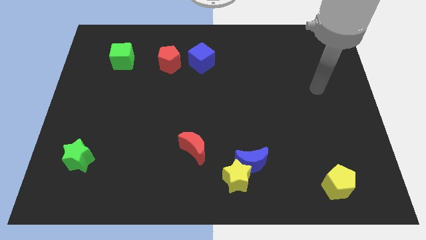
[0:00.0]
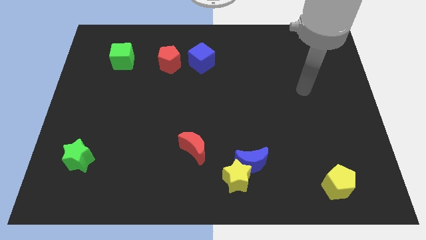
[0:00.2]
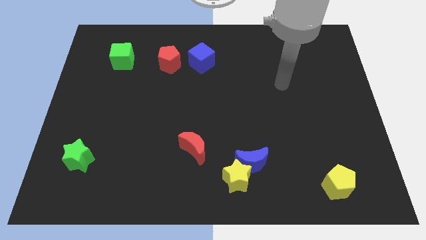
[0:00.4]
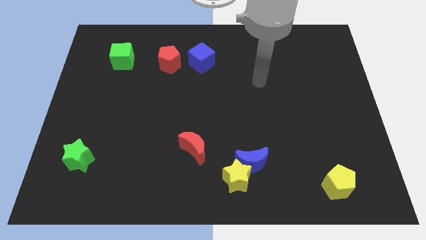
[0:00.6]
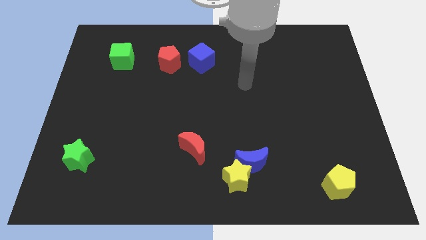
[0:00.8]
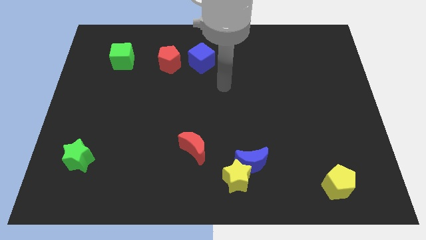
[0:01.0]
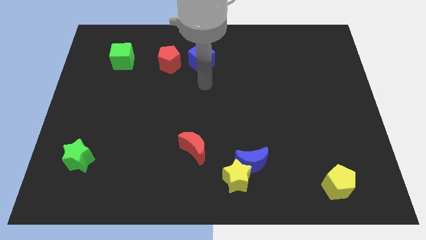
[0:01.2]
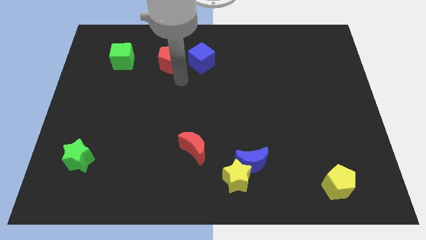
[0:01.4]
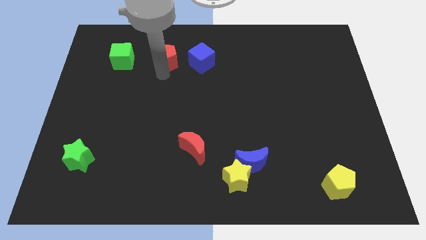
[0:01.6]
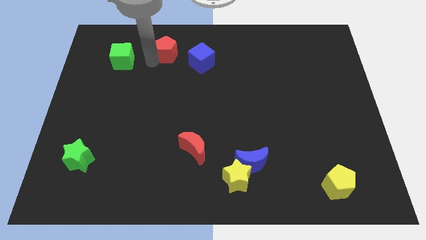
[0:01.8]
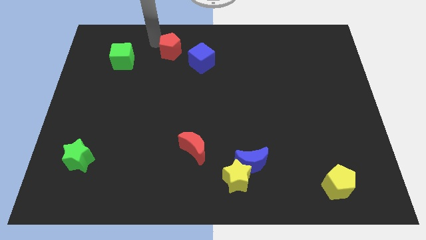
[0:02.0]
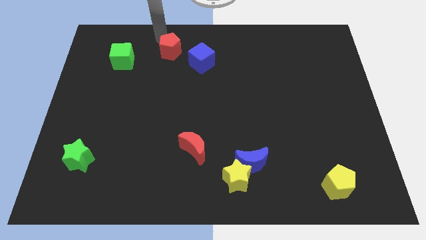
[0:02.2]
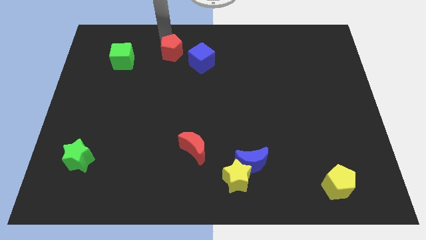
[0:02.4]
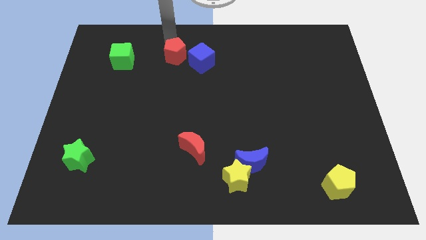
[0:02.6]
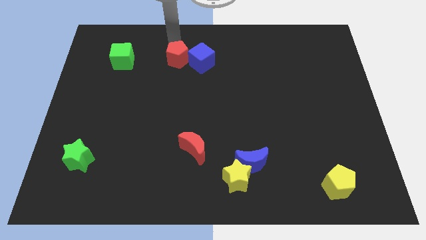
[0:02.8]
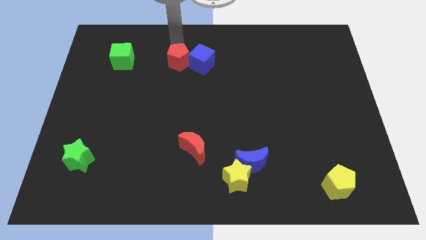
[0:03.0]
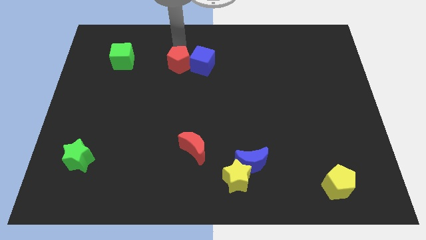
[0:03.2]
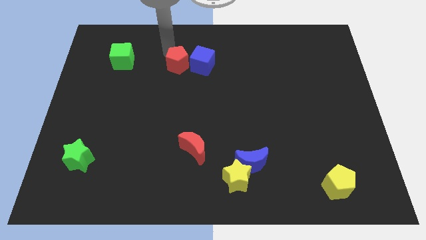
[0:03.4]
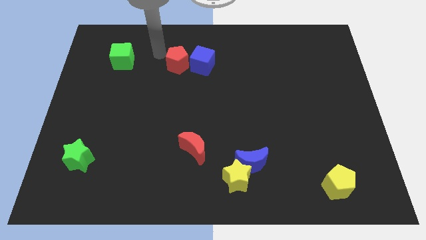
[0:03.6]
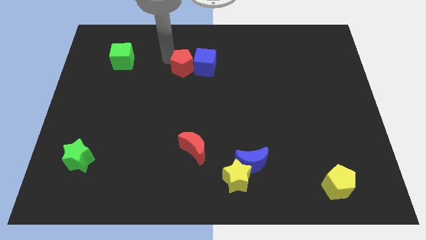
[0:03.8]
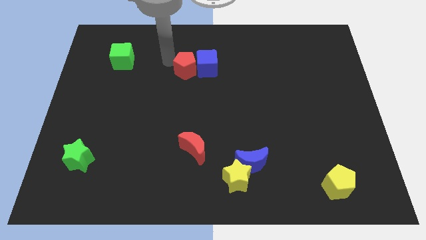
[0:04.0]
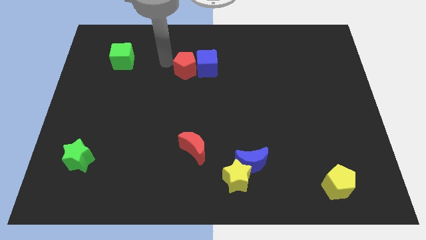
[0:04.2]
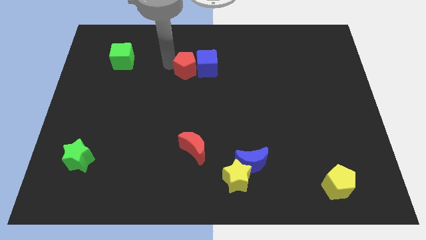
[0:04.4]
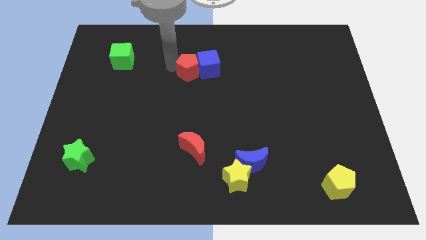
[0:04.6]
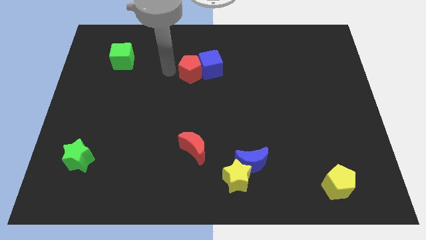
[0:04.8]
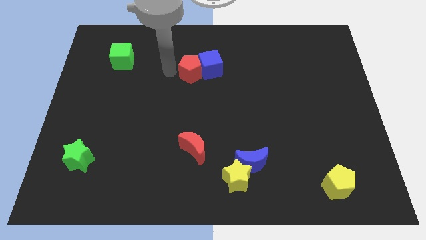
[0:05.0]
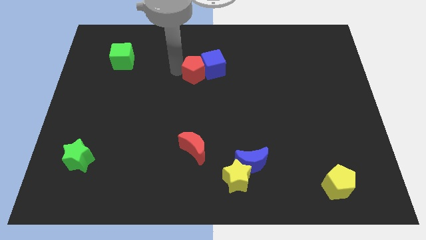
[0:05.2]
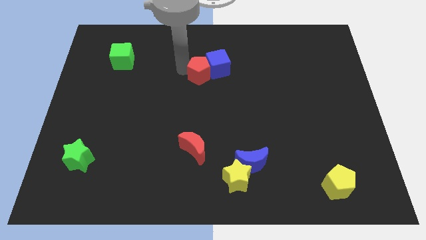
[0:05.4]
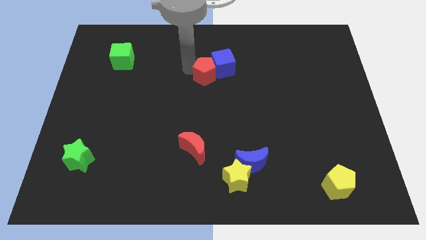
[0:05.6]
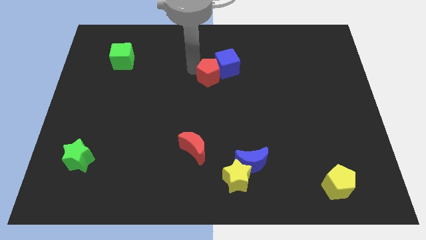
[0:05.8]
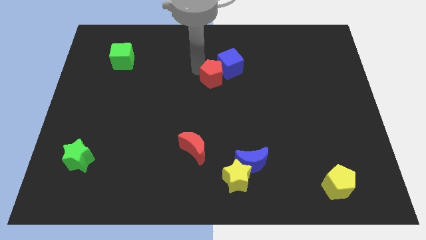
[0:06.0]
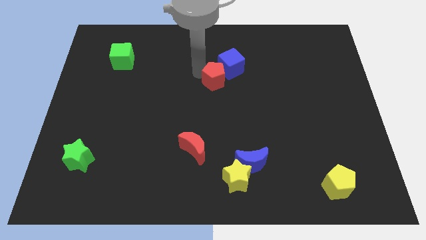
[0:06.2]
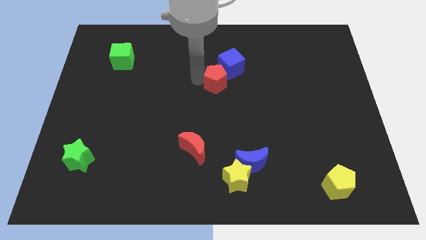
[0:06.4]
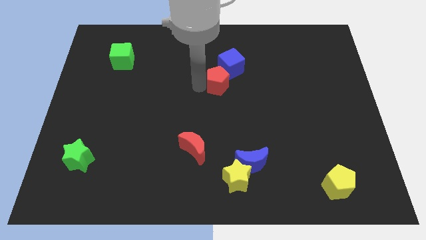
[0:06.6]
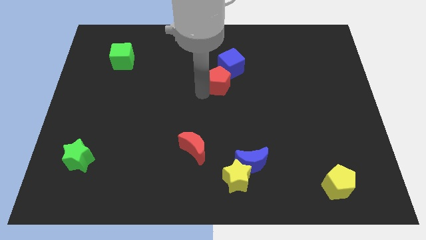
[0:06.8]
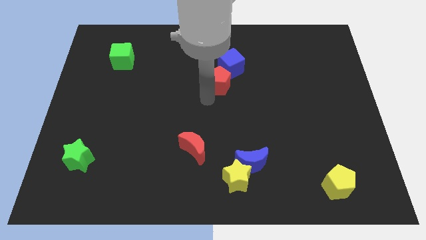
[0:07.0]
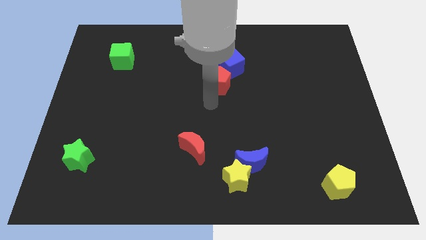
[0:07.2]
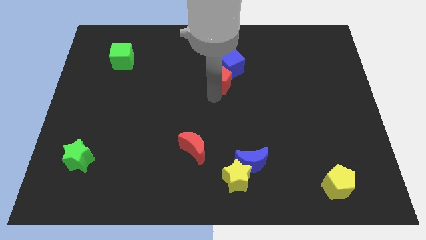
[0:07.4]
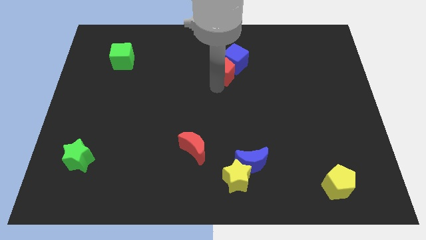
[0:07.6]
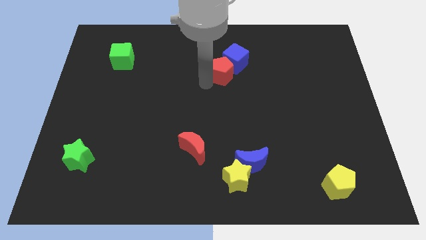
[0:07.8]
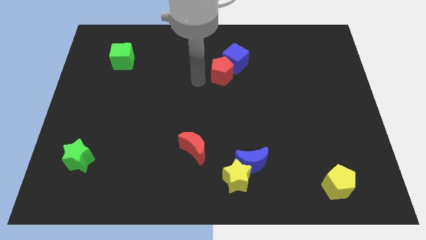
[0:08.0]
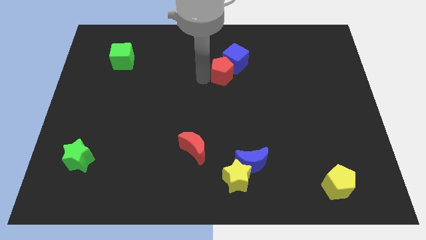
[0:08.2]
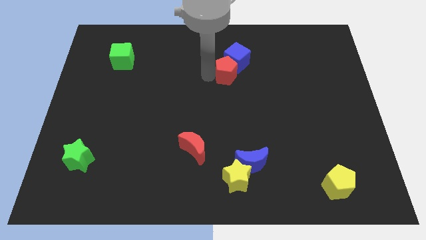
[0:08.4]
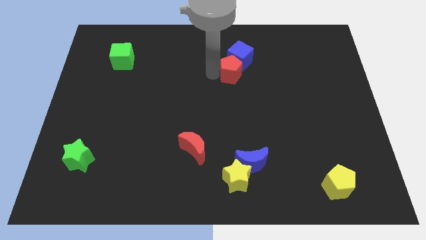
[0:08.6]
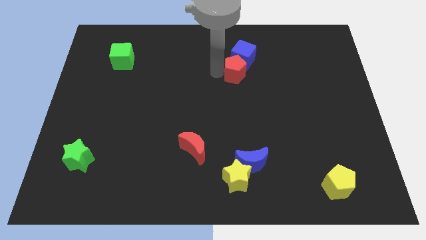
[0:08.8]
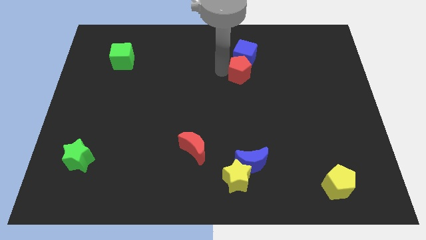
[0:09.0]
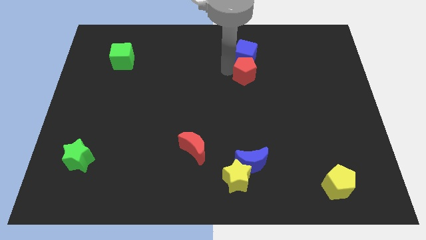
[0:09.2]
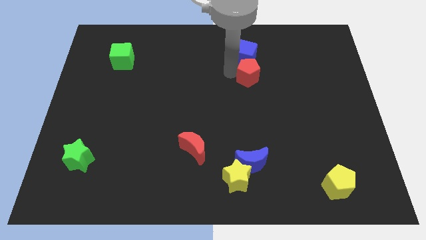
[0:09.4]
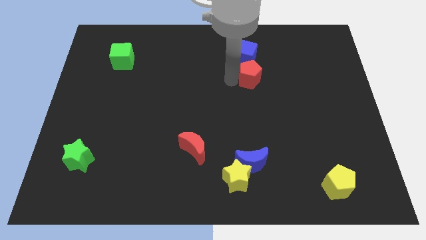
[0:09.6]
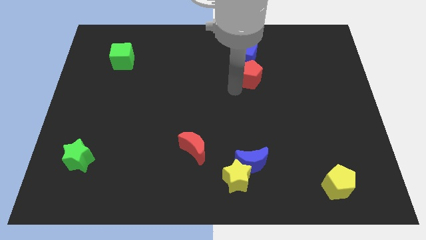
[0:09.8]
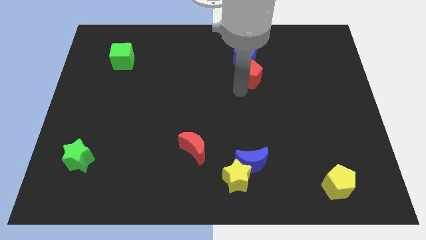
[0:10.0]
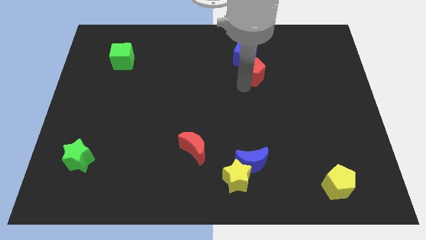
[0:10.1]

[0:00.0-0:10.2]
push the red pentagon to the right

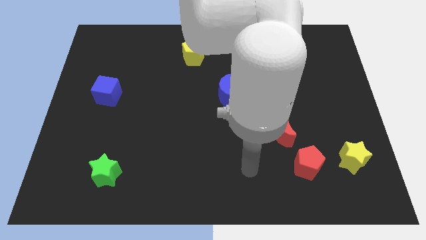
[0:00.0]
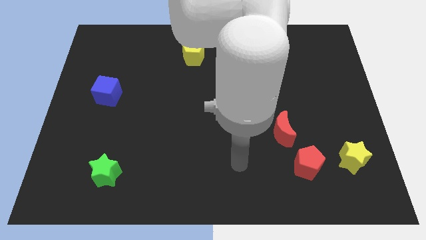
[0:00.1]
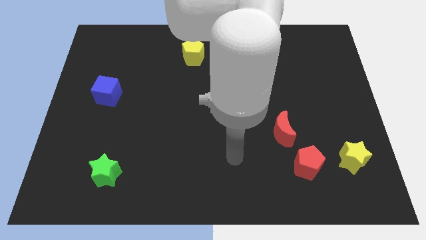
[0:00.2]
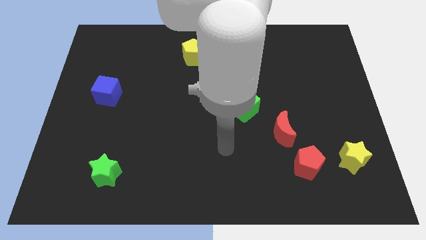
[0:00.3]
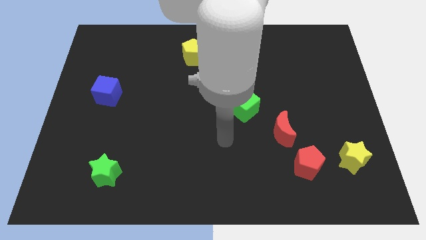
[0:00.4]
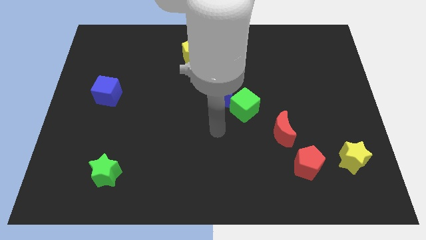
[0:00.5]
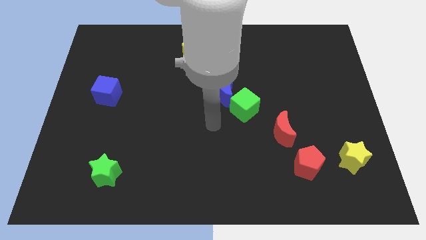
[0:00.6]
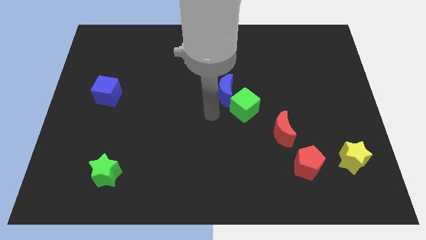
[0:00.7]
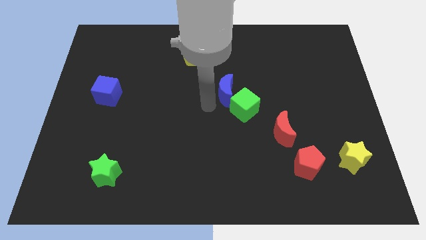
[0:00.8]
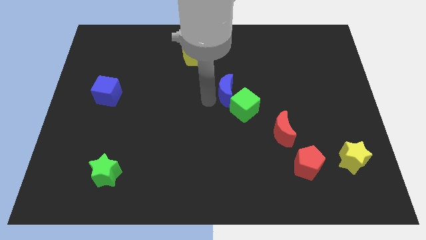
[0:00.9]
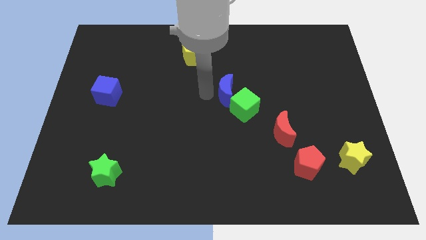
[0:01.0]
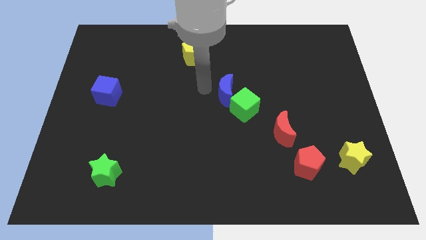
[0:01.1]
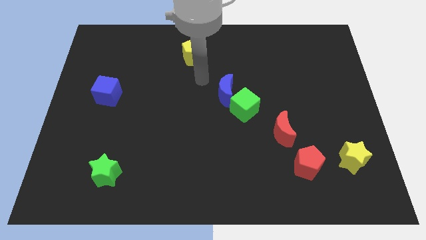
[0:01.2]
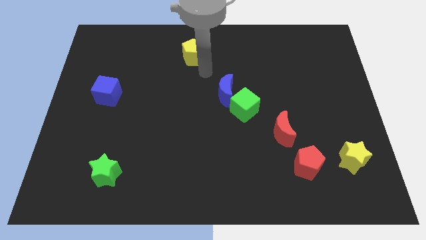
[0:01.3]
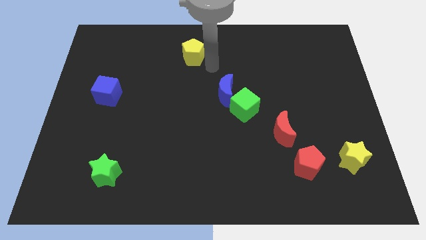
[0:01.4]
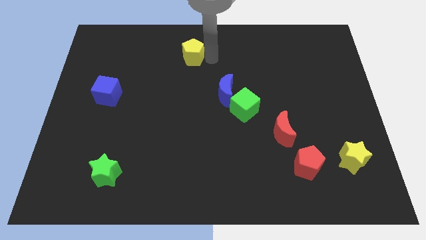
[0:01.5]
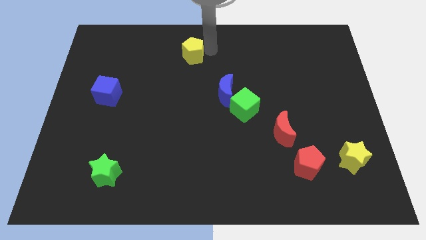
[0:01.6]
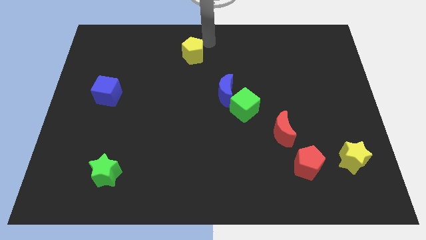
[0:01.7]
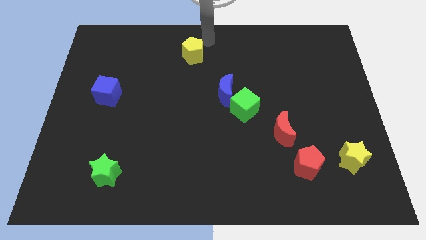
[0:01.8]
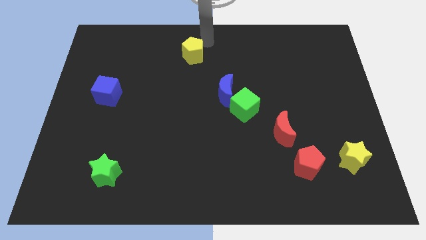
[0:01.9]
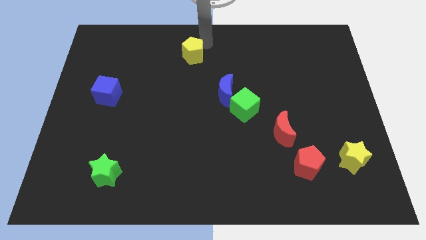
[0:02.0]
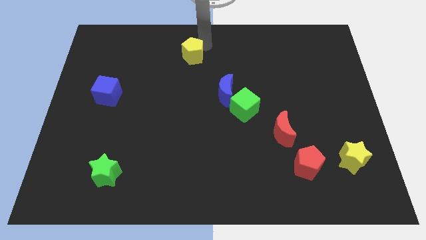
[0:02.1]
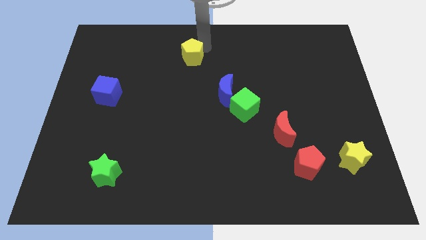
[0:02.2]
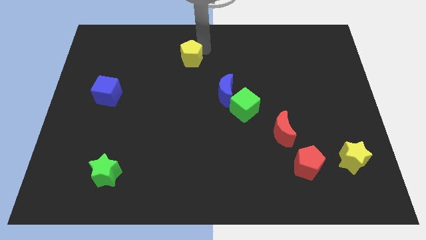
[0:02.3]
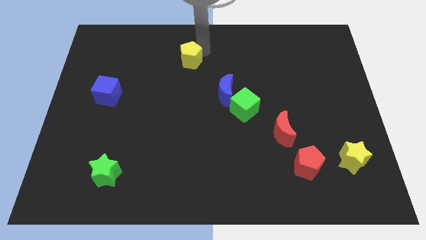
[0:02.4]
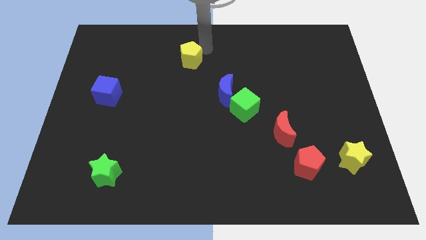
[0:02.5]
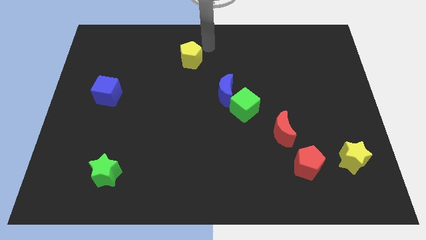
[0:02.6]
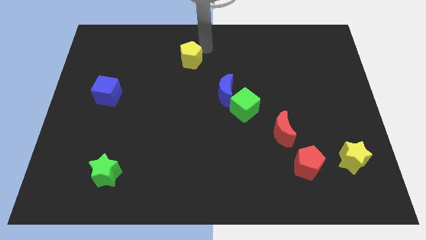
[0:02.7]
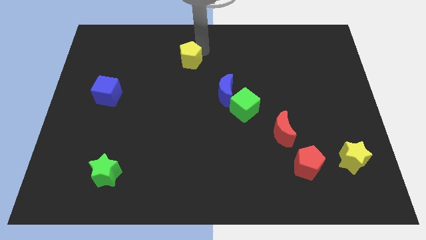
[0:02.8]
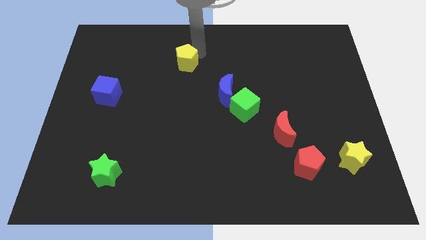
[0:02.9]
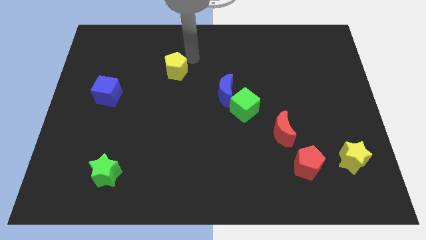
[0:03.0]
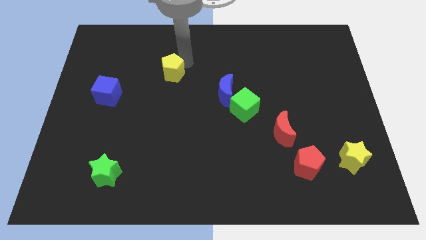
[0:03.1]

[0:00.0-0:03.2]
push the yellow pentagon downwards and left diagonally somewhat
